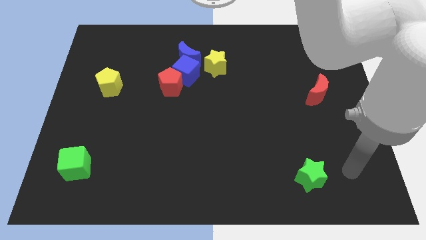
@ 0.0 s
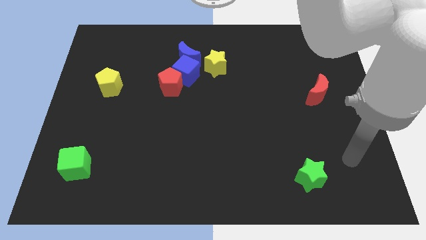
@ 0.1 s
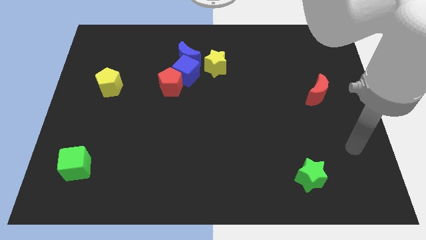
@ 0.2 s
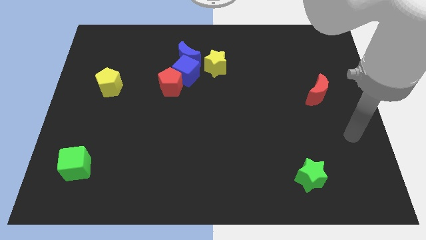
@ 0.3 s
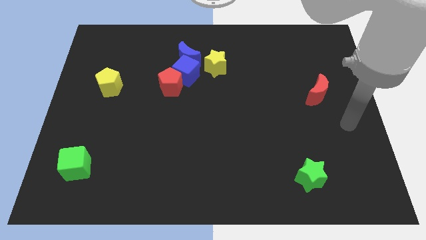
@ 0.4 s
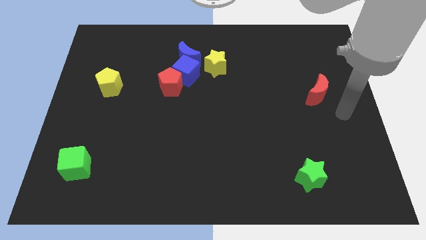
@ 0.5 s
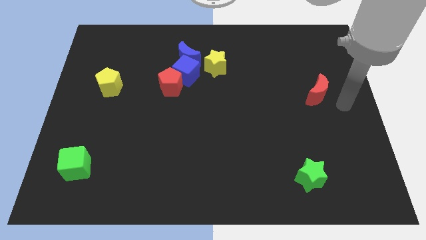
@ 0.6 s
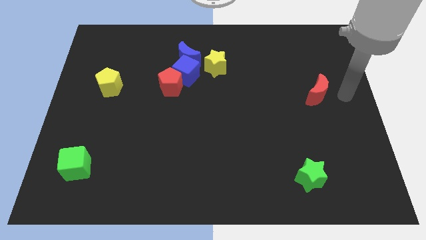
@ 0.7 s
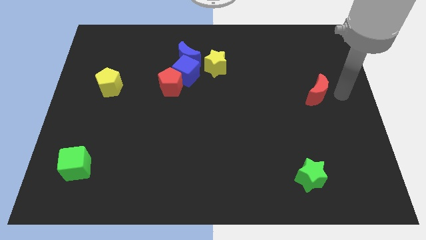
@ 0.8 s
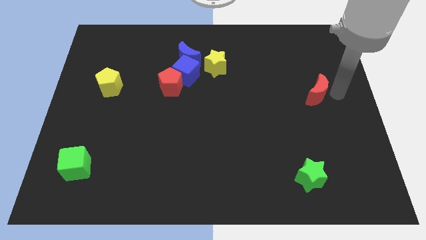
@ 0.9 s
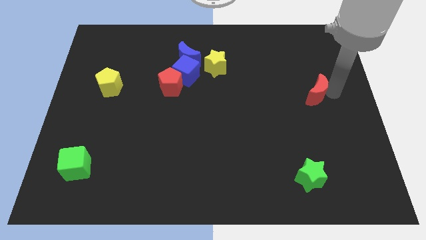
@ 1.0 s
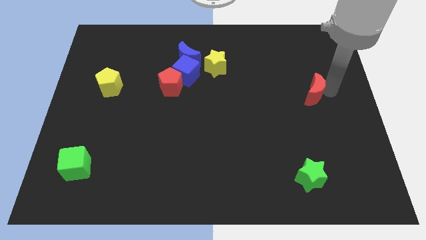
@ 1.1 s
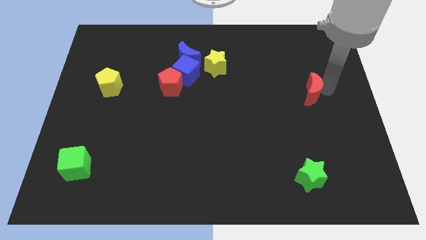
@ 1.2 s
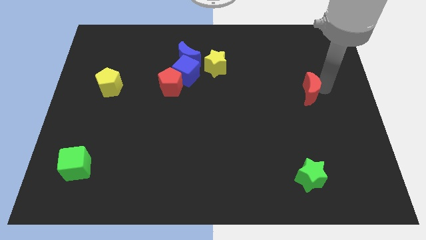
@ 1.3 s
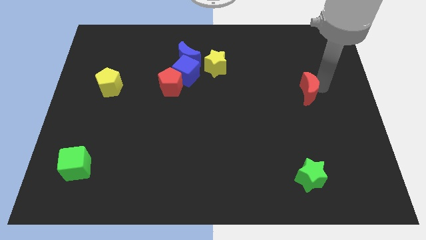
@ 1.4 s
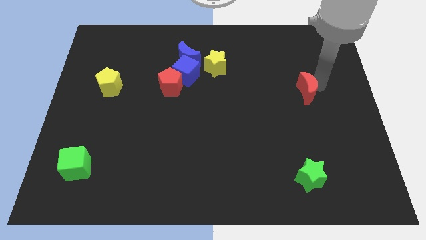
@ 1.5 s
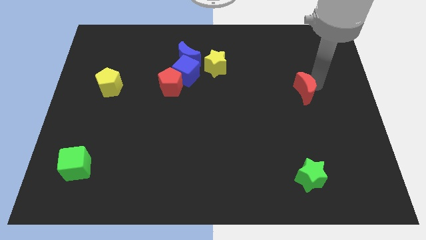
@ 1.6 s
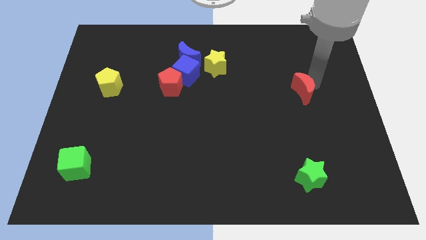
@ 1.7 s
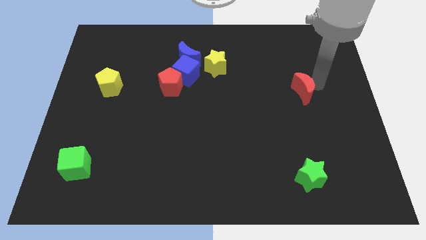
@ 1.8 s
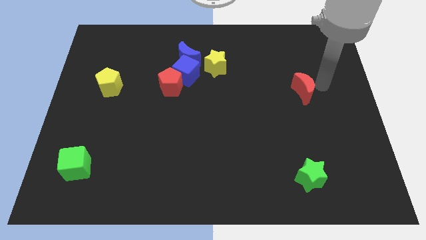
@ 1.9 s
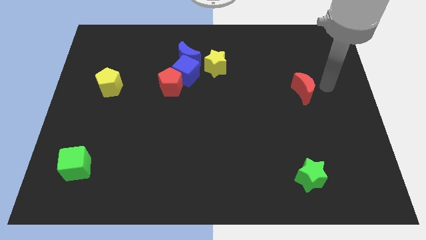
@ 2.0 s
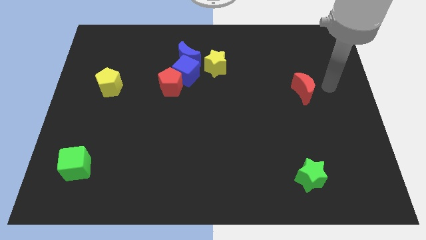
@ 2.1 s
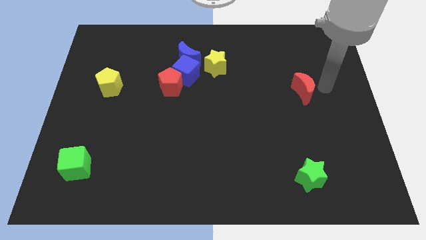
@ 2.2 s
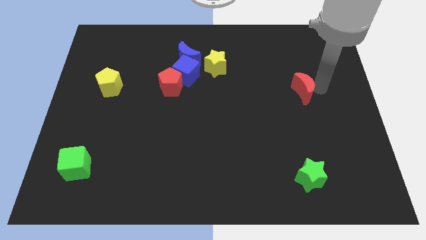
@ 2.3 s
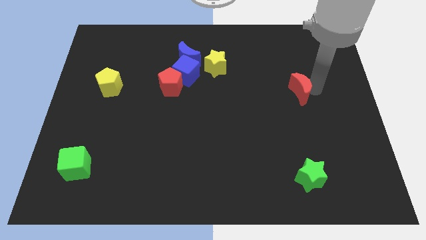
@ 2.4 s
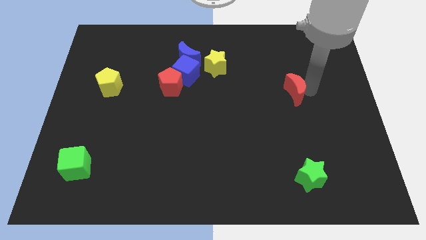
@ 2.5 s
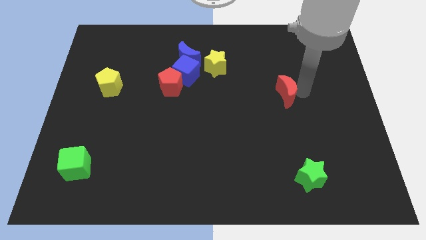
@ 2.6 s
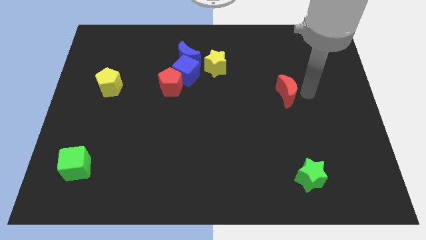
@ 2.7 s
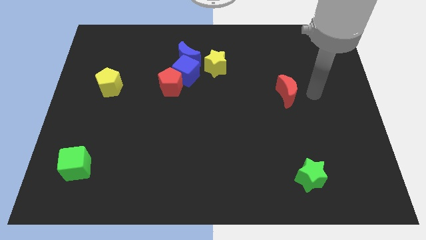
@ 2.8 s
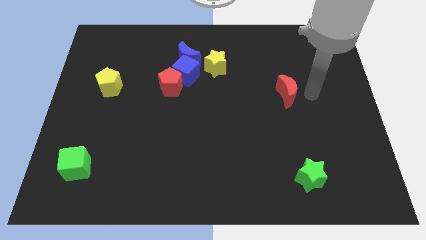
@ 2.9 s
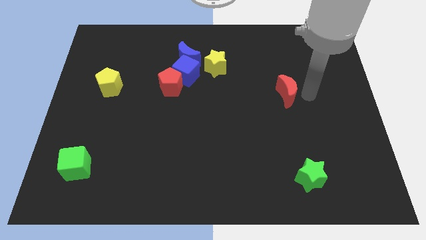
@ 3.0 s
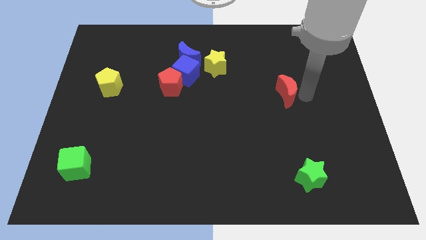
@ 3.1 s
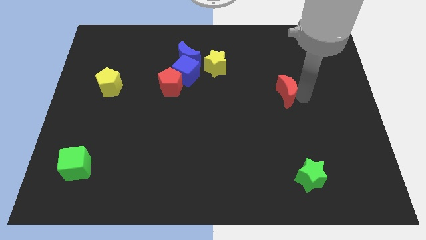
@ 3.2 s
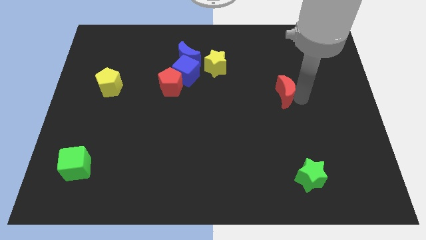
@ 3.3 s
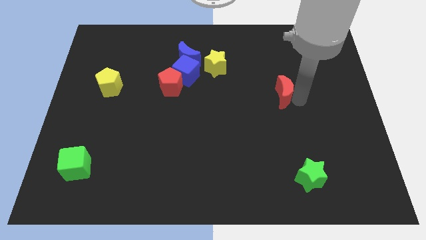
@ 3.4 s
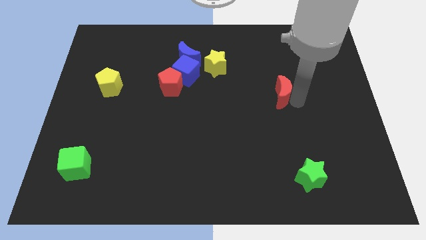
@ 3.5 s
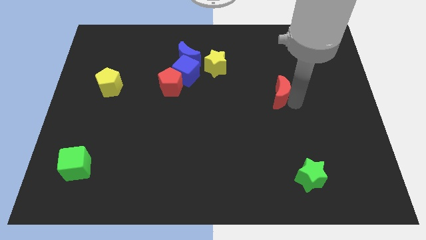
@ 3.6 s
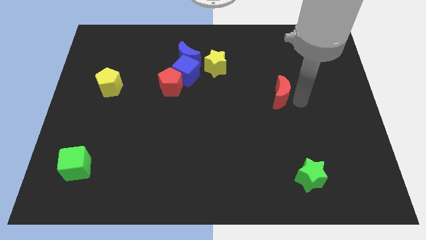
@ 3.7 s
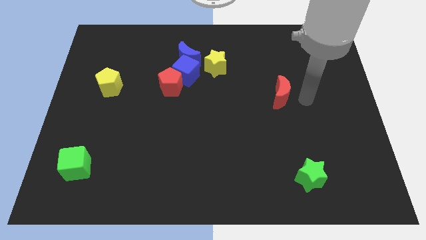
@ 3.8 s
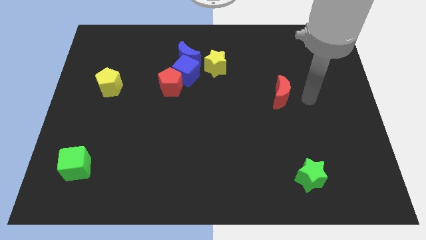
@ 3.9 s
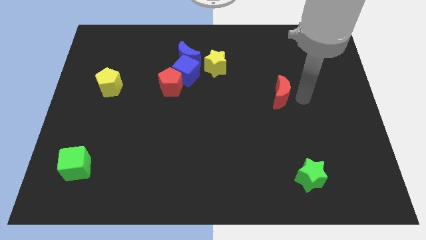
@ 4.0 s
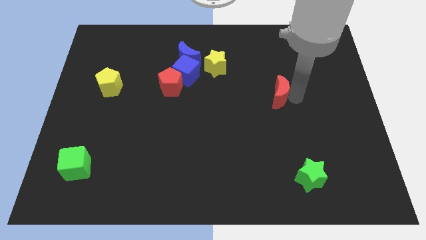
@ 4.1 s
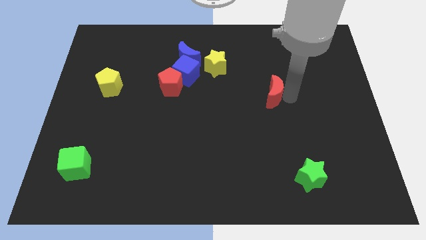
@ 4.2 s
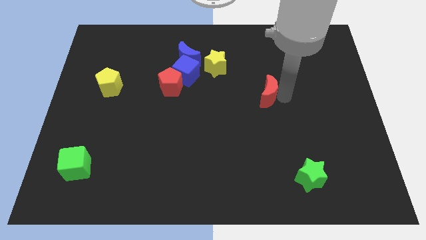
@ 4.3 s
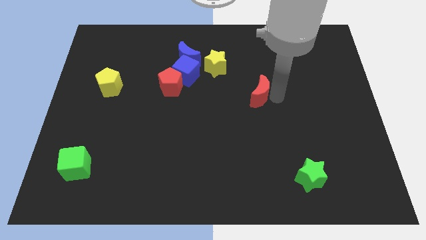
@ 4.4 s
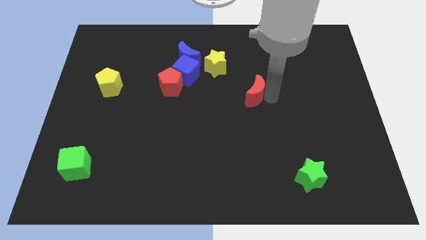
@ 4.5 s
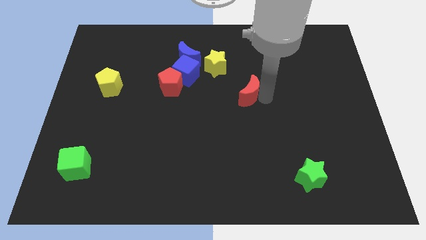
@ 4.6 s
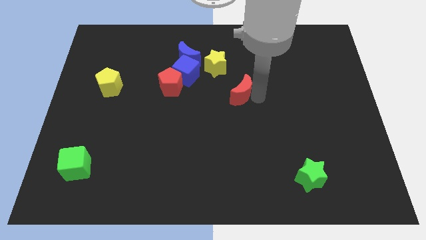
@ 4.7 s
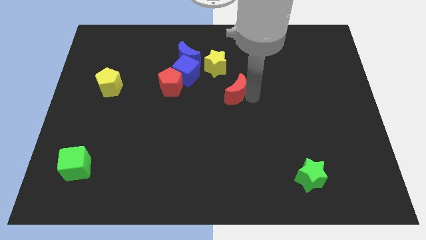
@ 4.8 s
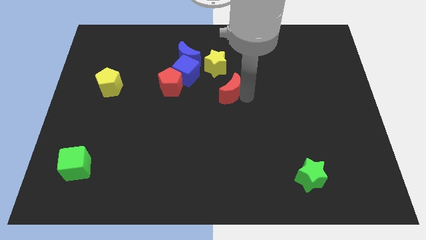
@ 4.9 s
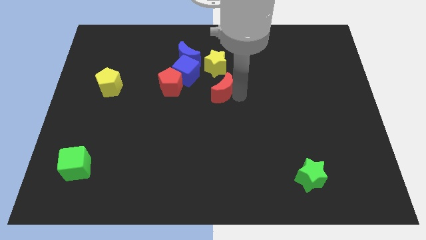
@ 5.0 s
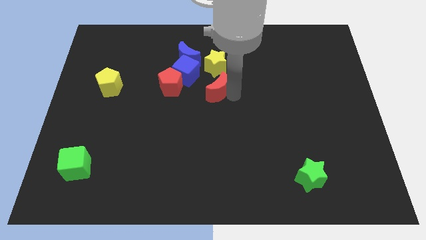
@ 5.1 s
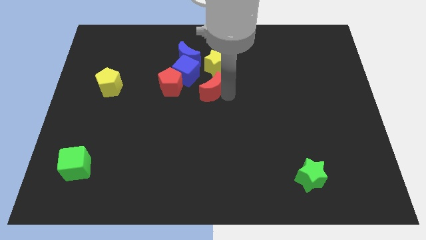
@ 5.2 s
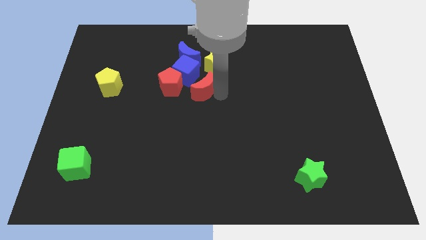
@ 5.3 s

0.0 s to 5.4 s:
move the red moon diagonally down and to the left of the yellow star

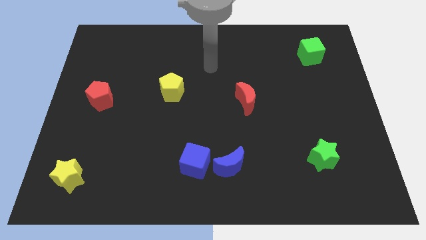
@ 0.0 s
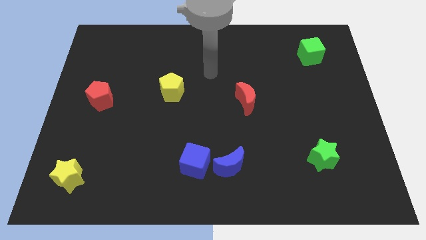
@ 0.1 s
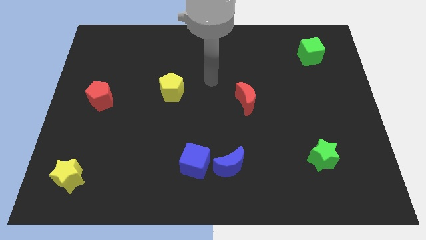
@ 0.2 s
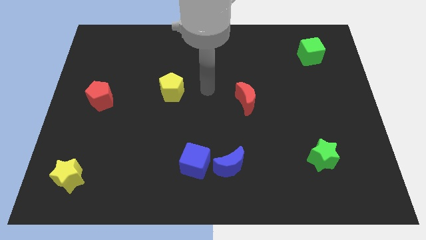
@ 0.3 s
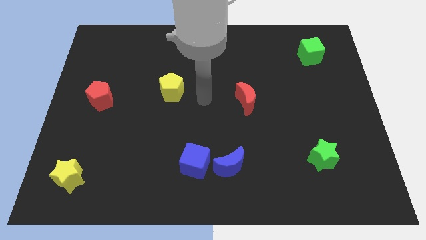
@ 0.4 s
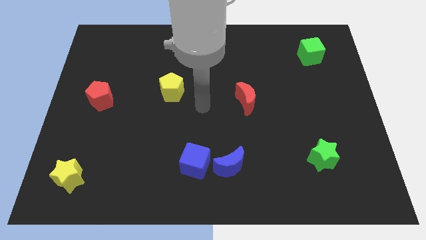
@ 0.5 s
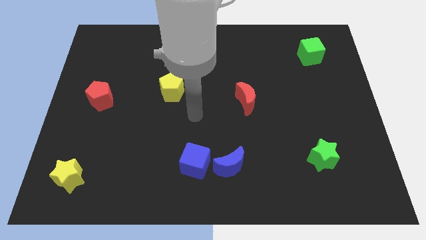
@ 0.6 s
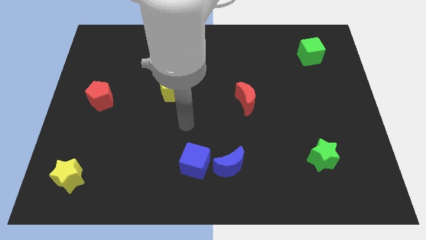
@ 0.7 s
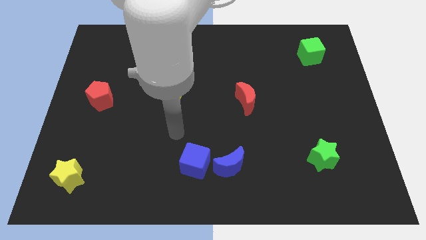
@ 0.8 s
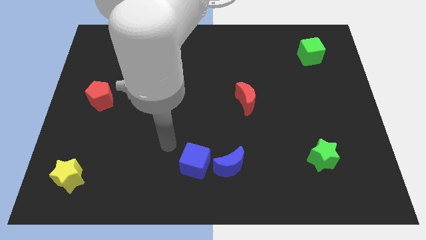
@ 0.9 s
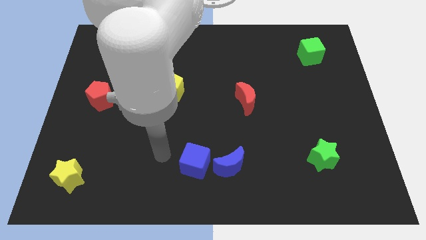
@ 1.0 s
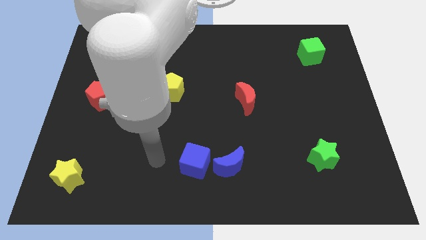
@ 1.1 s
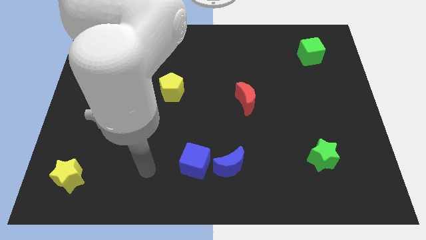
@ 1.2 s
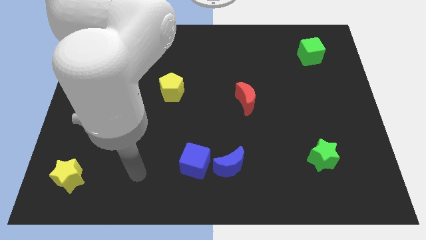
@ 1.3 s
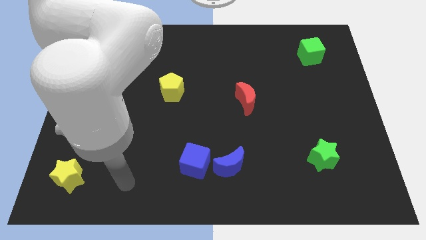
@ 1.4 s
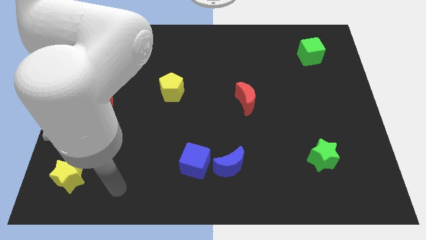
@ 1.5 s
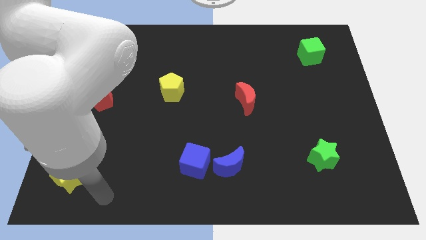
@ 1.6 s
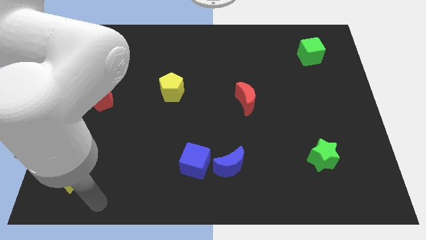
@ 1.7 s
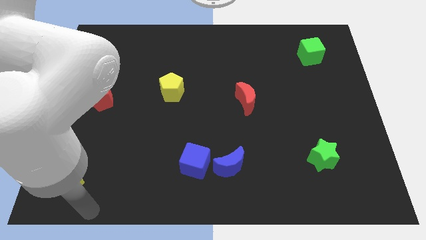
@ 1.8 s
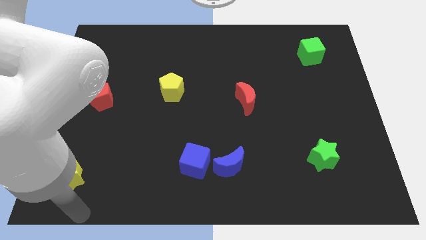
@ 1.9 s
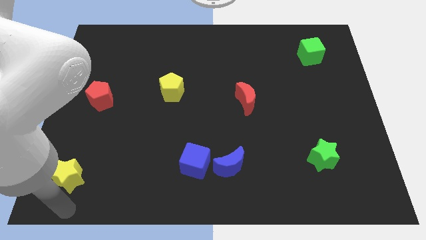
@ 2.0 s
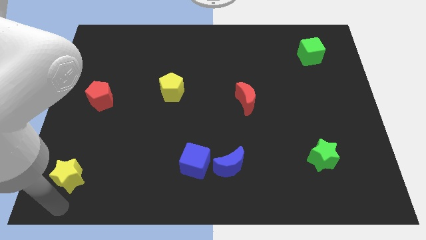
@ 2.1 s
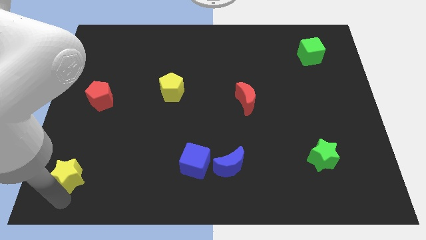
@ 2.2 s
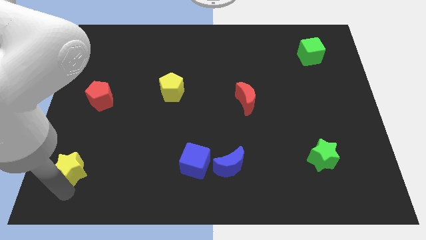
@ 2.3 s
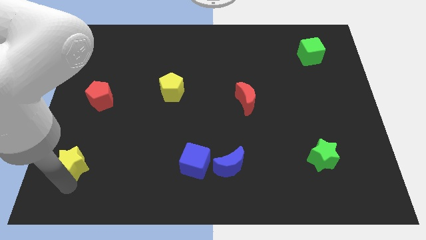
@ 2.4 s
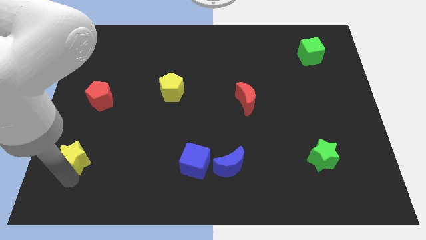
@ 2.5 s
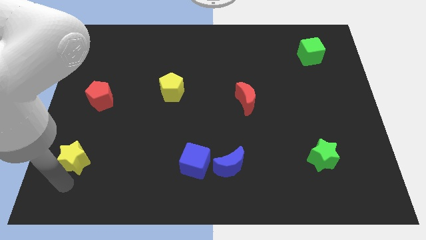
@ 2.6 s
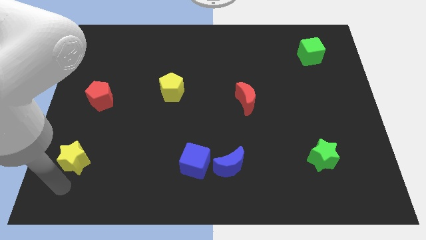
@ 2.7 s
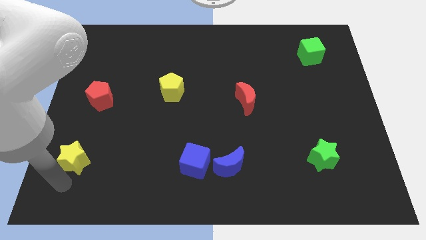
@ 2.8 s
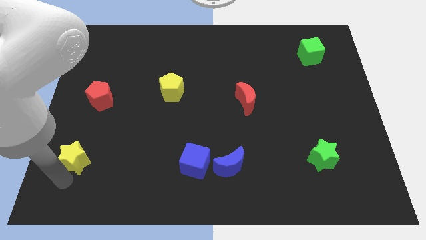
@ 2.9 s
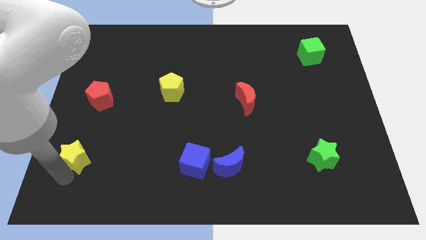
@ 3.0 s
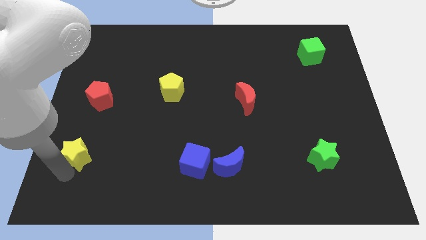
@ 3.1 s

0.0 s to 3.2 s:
move the yellow star to the bottom of the red pentagon
